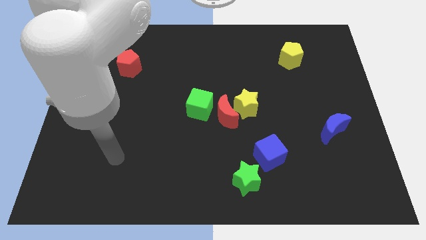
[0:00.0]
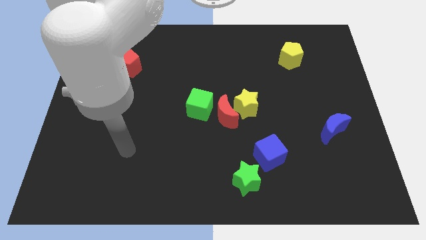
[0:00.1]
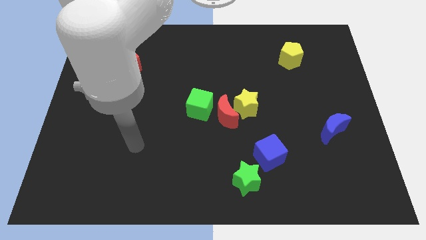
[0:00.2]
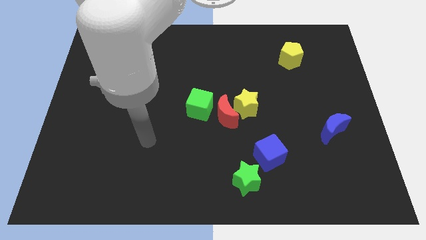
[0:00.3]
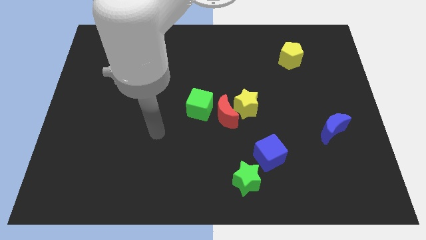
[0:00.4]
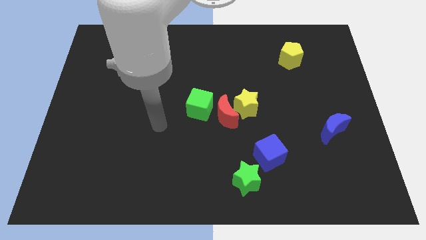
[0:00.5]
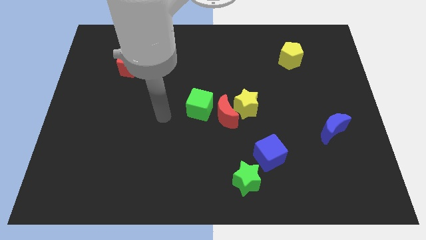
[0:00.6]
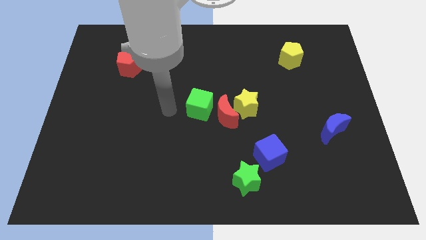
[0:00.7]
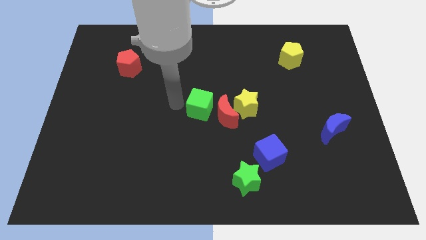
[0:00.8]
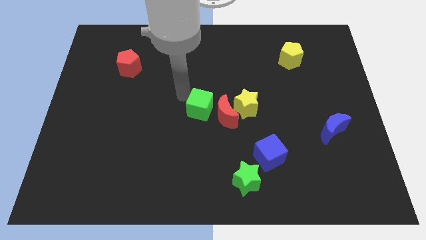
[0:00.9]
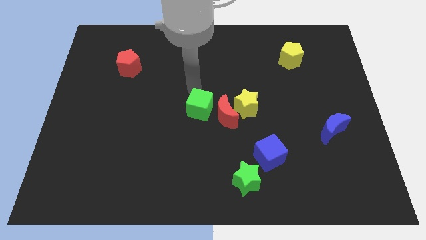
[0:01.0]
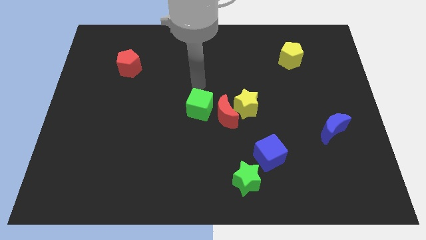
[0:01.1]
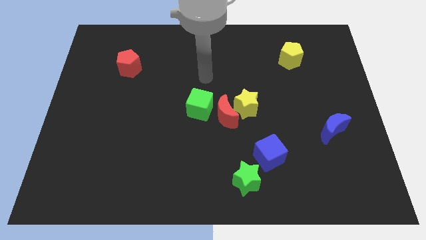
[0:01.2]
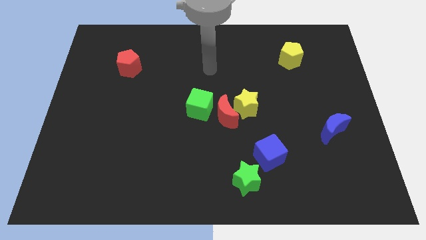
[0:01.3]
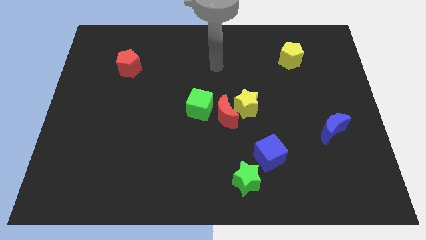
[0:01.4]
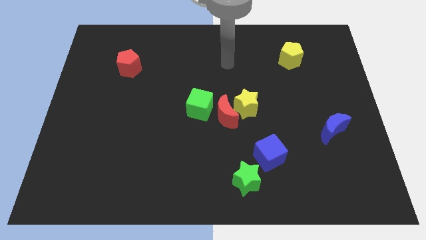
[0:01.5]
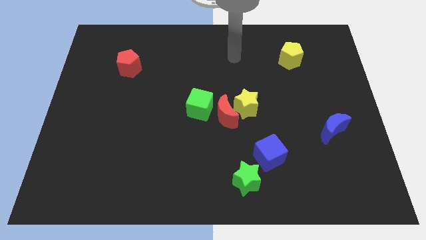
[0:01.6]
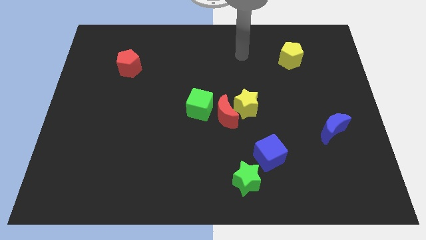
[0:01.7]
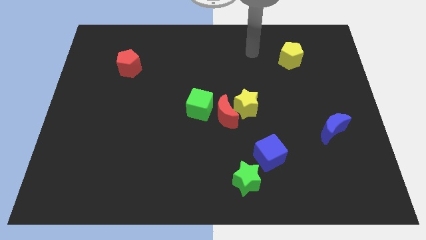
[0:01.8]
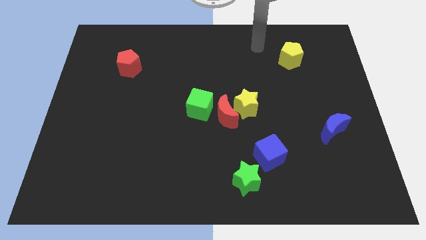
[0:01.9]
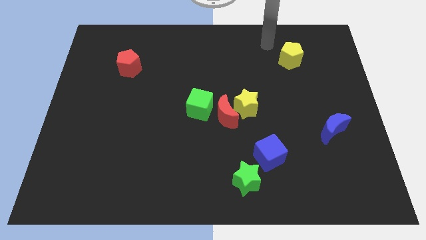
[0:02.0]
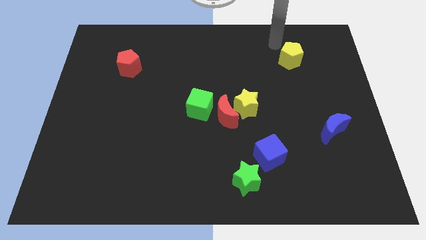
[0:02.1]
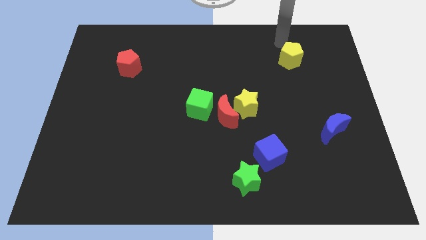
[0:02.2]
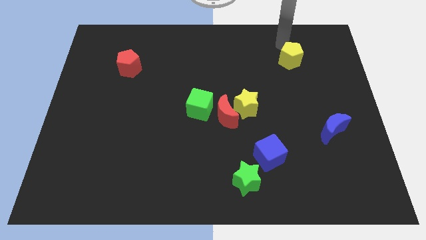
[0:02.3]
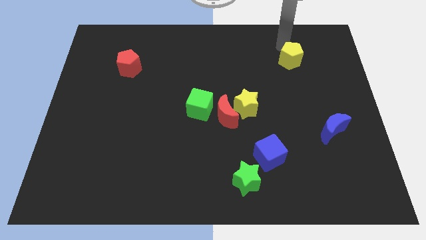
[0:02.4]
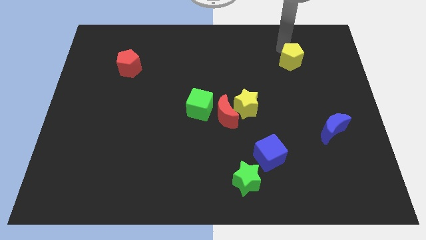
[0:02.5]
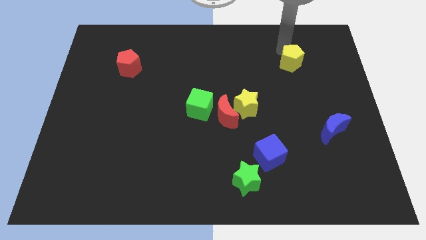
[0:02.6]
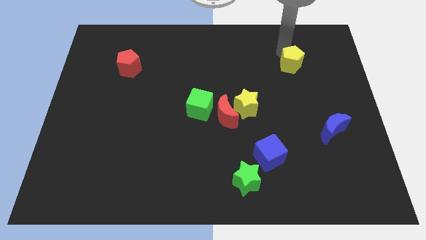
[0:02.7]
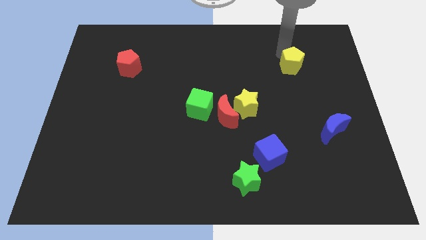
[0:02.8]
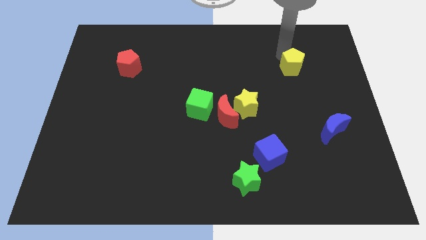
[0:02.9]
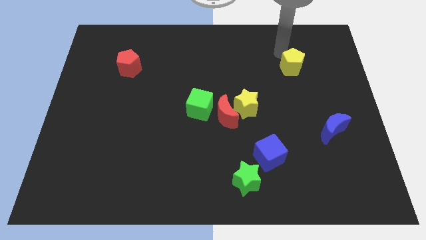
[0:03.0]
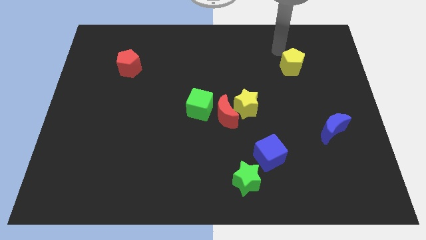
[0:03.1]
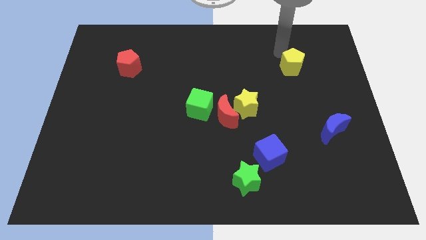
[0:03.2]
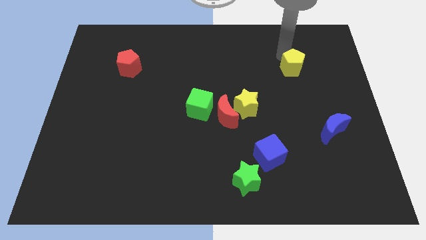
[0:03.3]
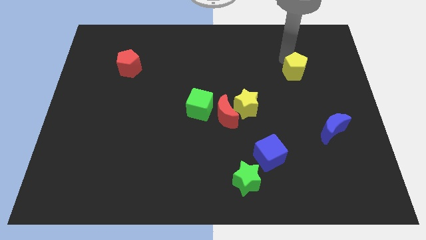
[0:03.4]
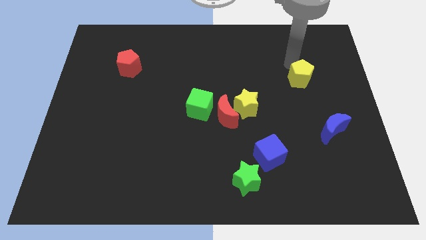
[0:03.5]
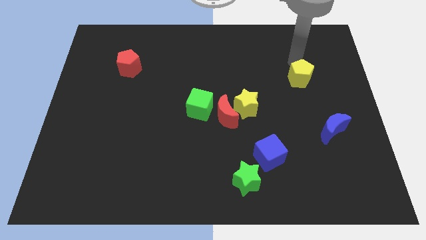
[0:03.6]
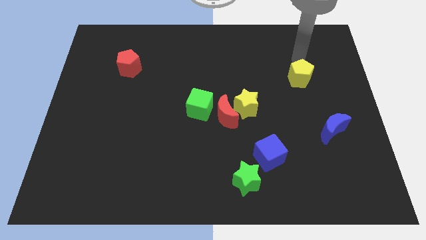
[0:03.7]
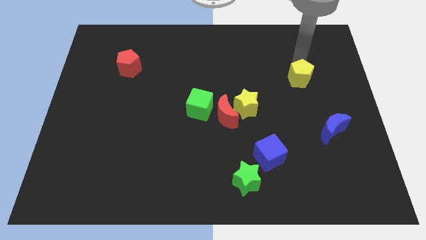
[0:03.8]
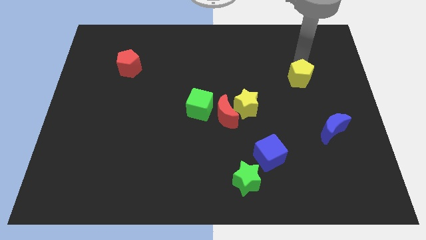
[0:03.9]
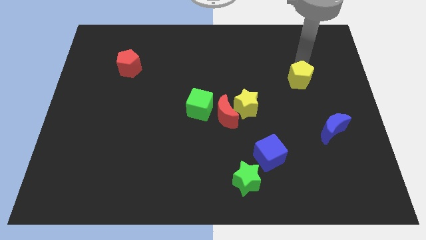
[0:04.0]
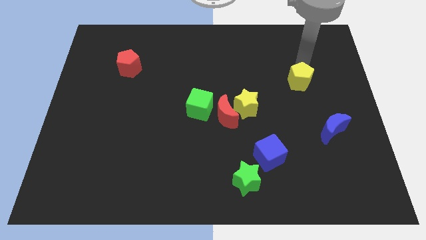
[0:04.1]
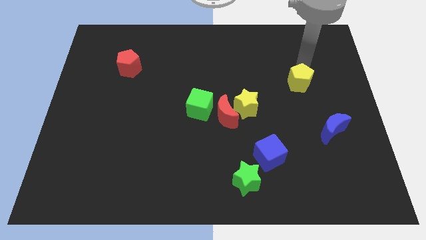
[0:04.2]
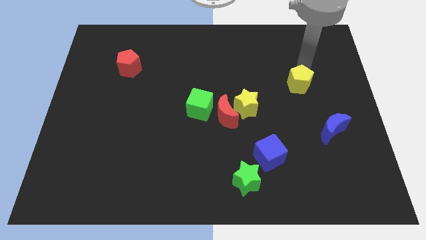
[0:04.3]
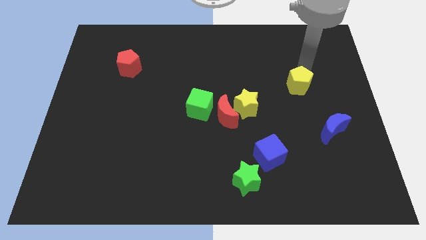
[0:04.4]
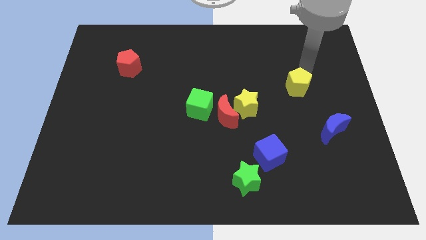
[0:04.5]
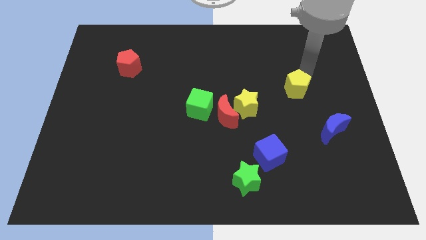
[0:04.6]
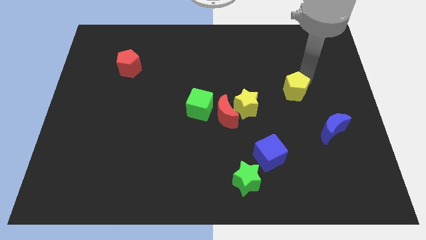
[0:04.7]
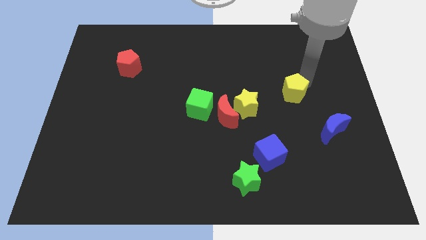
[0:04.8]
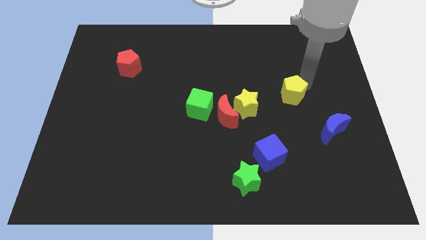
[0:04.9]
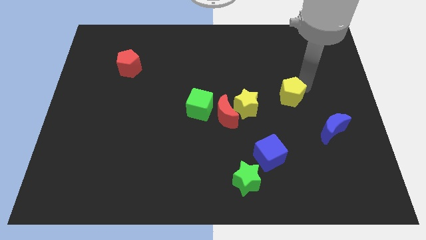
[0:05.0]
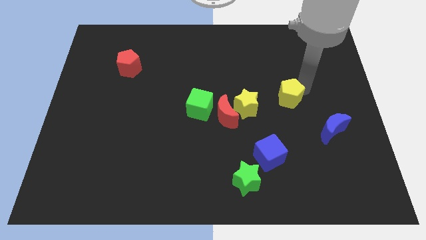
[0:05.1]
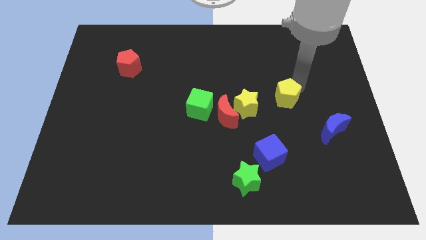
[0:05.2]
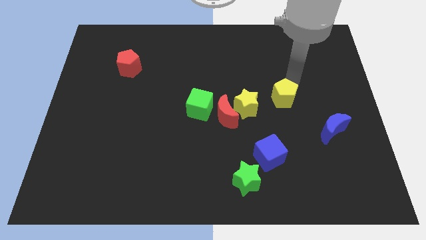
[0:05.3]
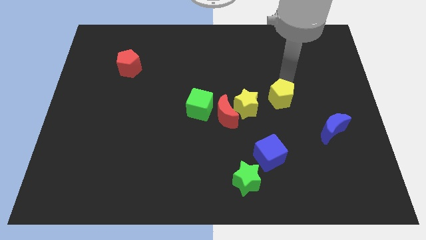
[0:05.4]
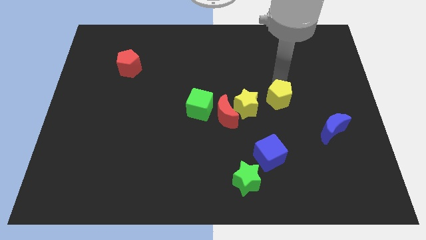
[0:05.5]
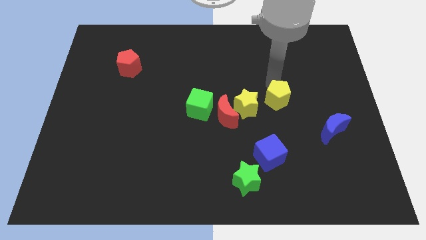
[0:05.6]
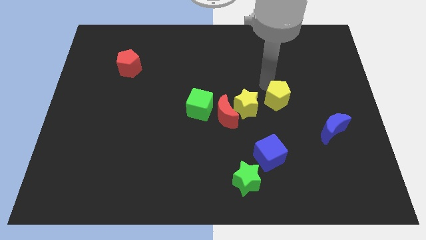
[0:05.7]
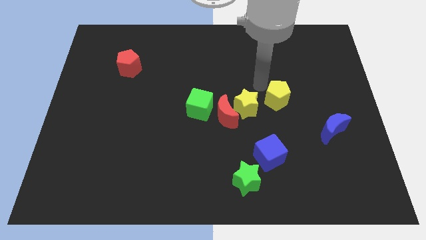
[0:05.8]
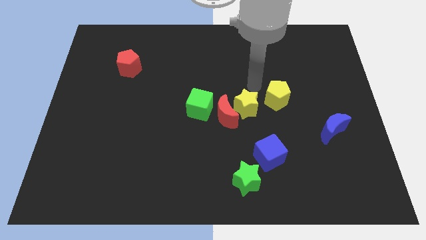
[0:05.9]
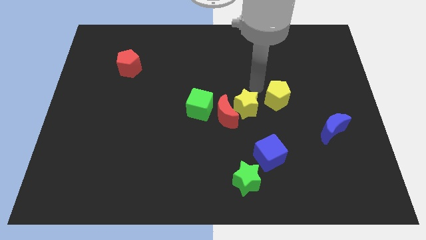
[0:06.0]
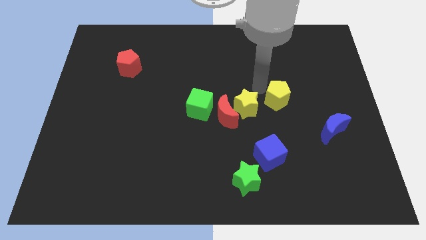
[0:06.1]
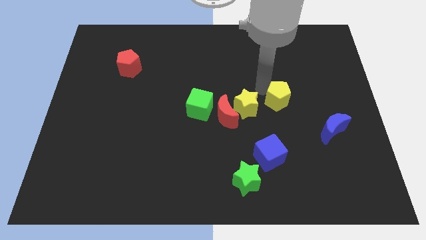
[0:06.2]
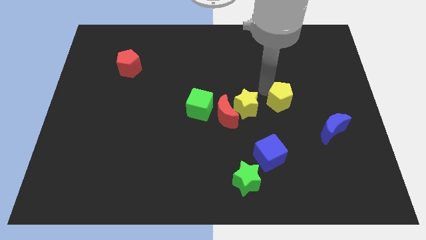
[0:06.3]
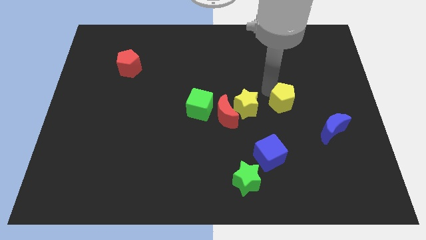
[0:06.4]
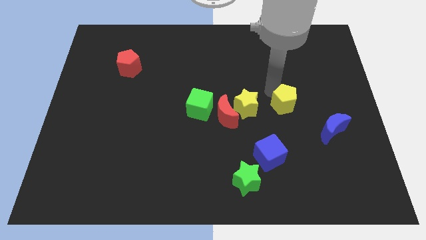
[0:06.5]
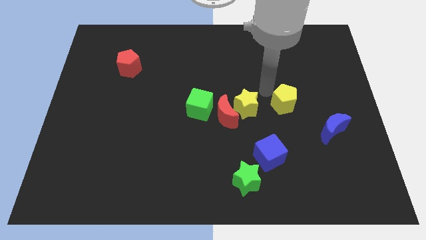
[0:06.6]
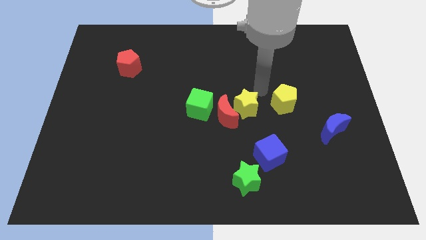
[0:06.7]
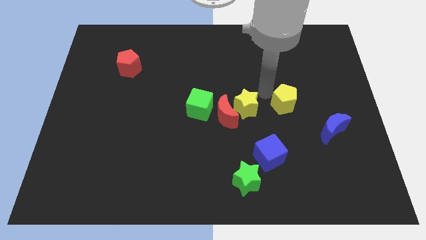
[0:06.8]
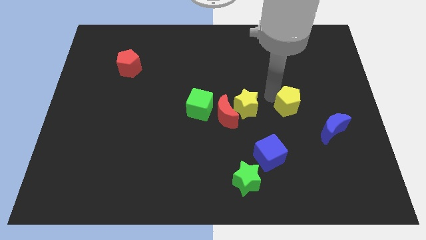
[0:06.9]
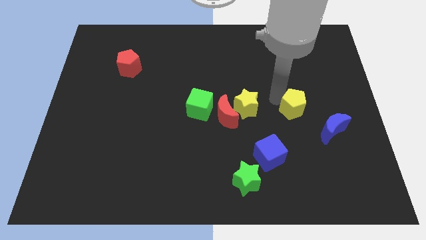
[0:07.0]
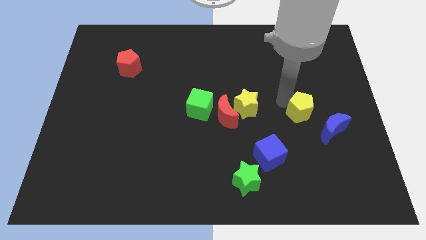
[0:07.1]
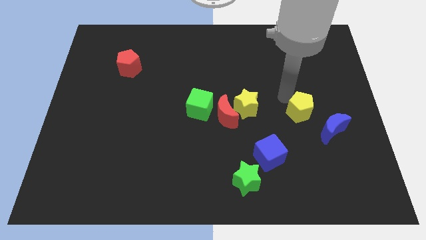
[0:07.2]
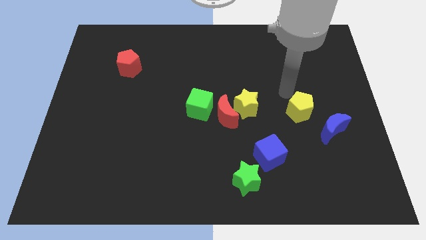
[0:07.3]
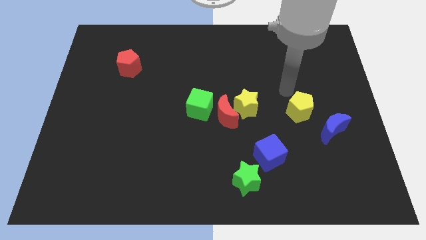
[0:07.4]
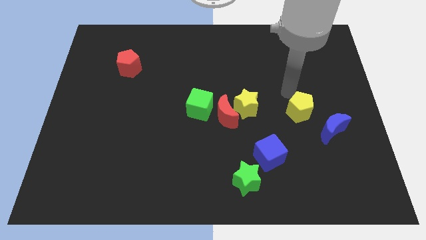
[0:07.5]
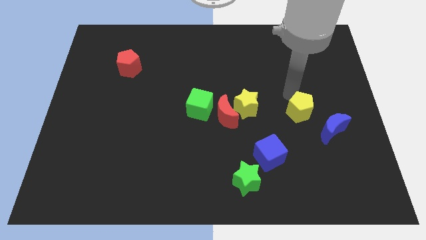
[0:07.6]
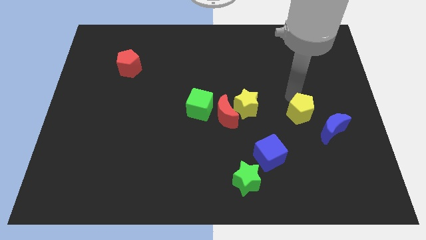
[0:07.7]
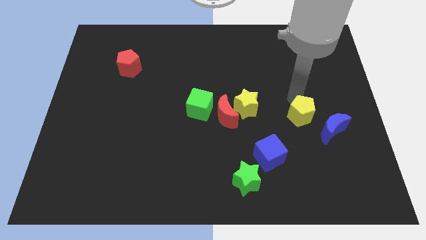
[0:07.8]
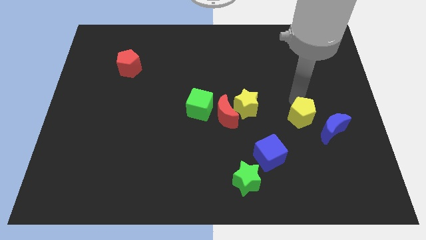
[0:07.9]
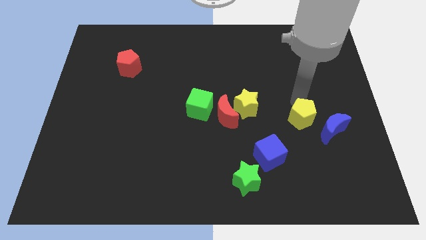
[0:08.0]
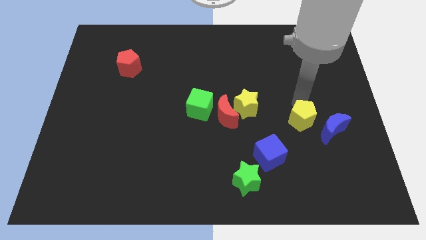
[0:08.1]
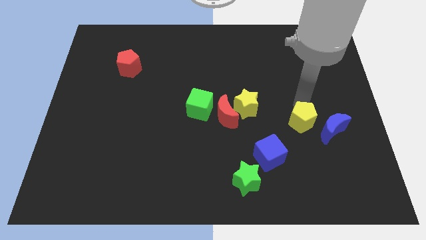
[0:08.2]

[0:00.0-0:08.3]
push the yellow pentagon downwards
